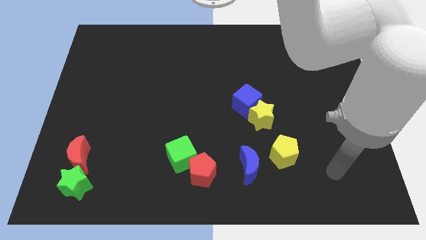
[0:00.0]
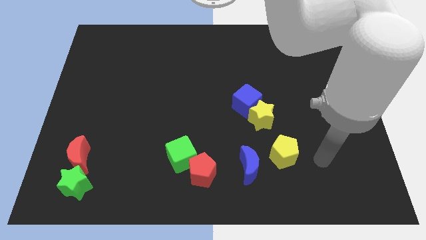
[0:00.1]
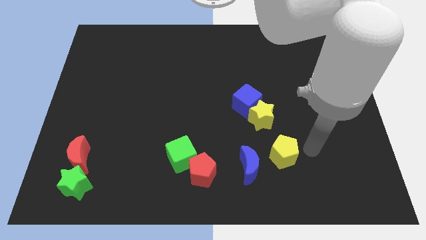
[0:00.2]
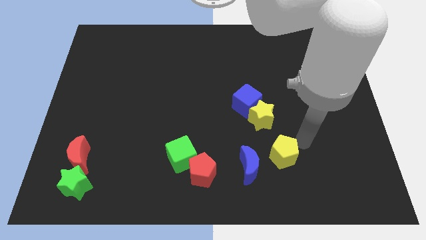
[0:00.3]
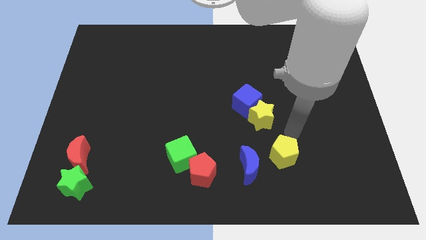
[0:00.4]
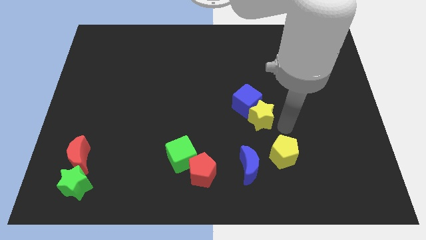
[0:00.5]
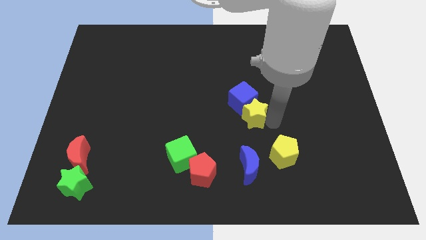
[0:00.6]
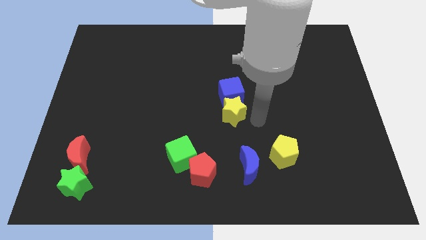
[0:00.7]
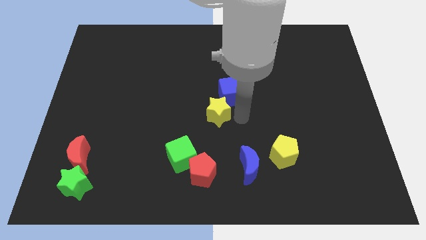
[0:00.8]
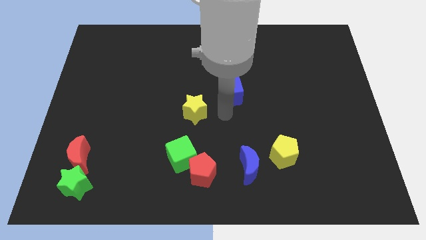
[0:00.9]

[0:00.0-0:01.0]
separate the blue cube from the yellow star

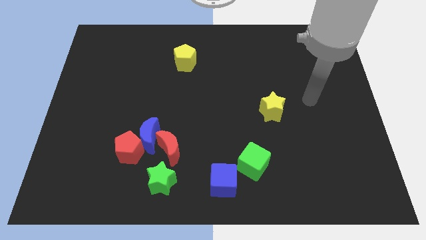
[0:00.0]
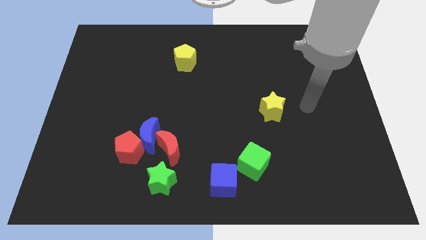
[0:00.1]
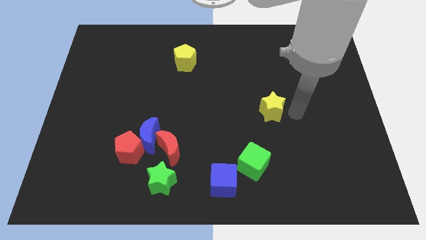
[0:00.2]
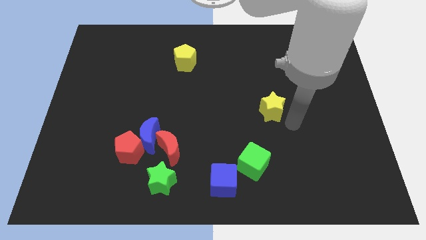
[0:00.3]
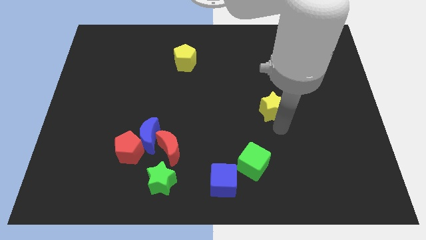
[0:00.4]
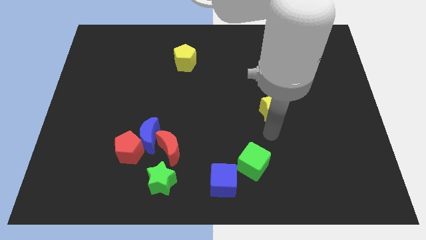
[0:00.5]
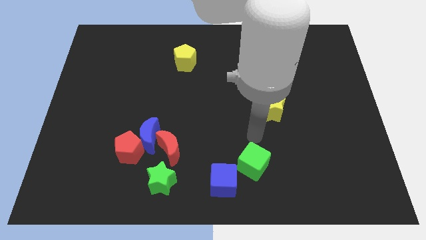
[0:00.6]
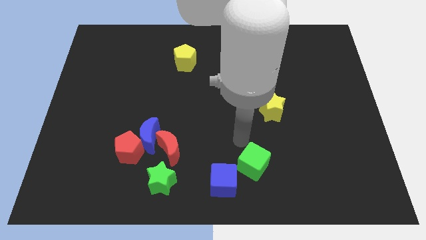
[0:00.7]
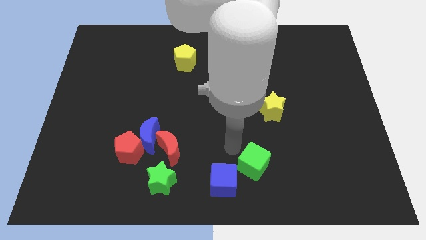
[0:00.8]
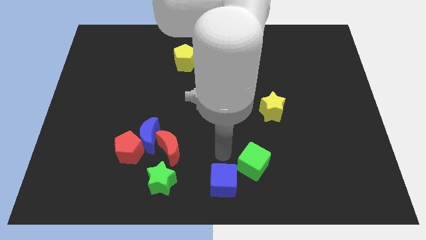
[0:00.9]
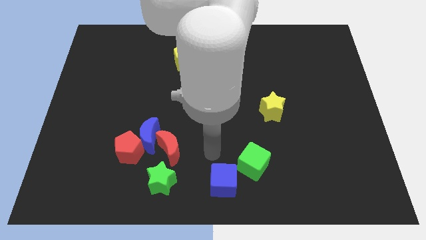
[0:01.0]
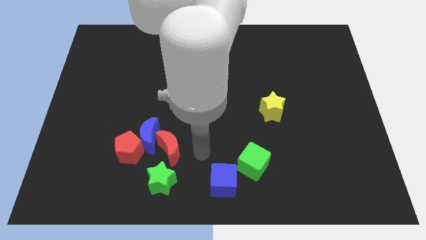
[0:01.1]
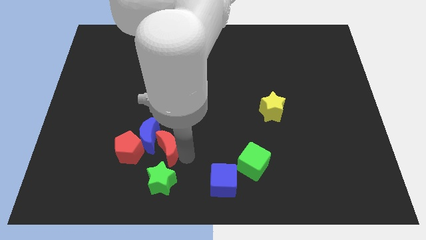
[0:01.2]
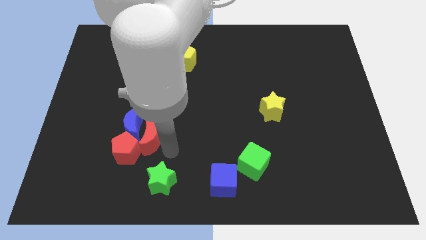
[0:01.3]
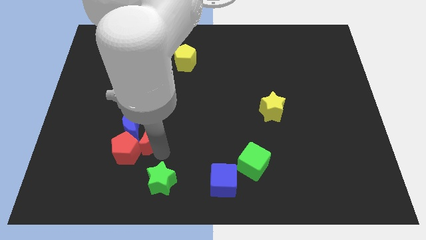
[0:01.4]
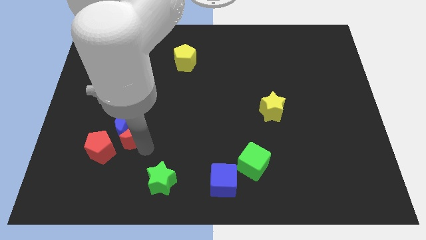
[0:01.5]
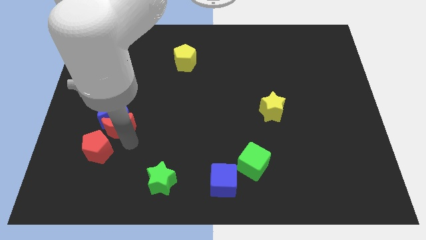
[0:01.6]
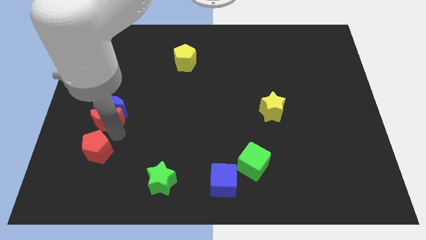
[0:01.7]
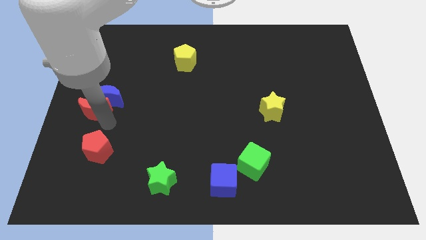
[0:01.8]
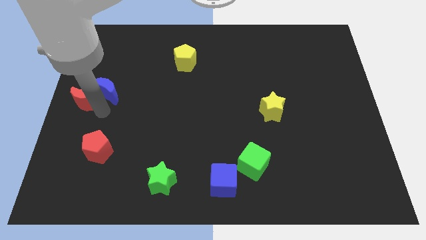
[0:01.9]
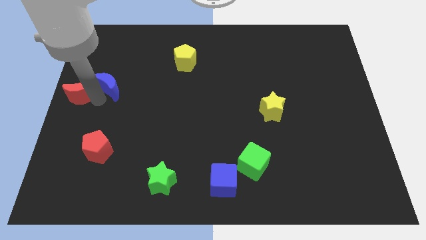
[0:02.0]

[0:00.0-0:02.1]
pull the blue moon apart from the red pentagon and red moon

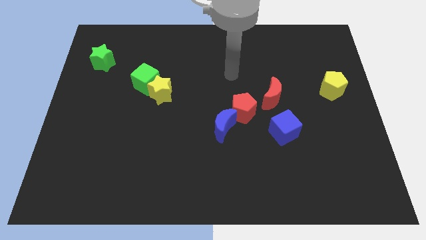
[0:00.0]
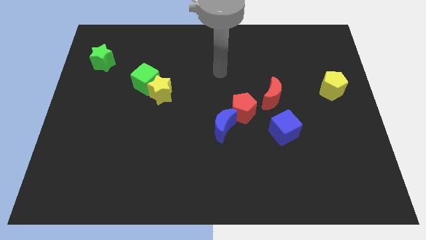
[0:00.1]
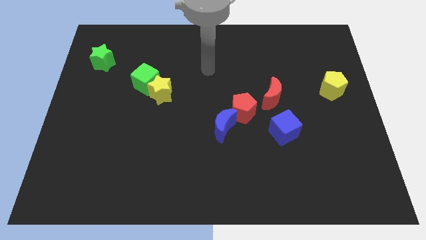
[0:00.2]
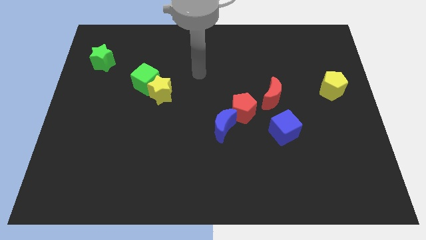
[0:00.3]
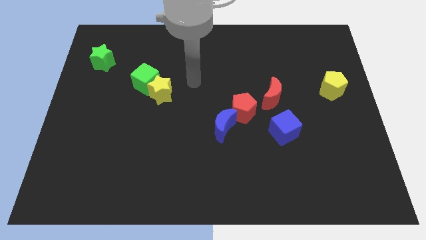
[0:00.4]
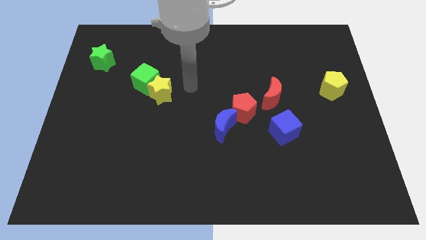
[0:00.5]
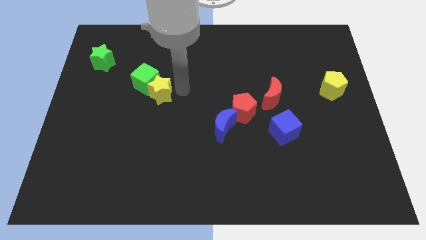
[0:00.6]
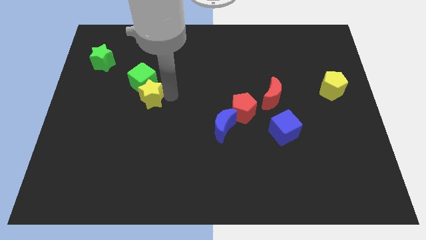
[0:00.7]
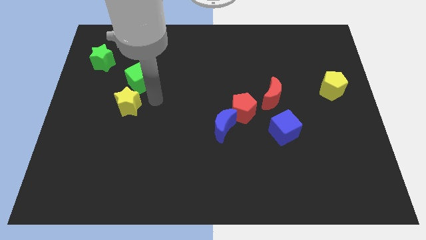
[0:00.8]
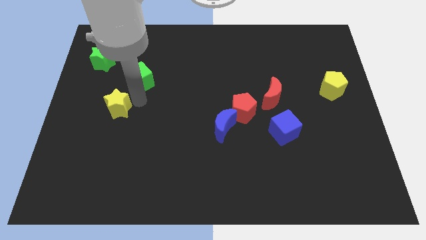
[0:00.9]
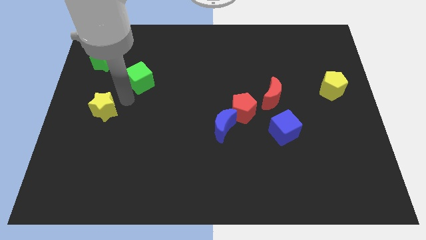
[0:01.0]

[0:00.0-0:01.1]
pull the green cube apart from the yellow star

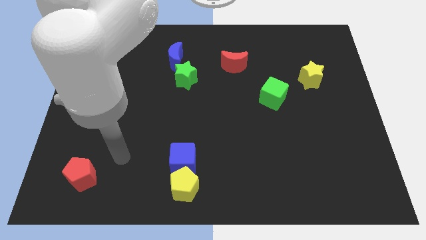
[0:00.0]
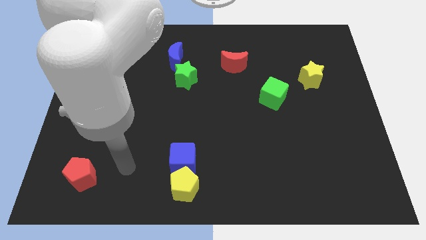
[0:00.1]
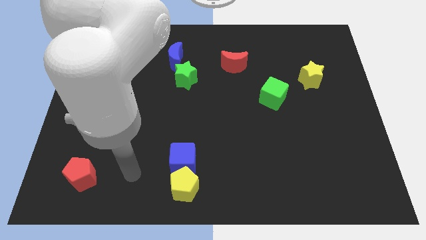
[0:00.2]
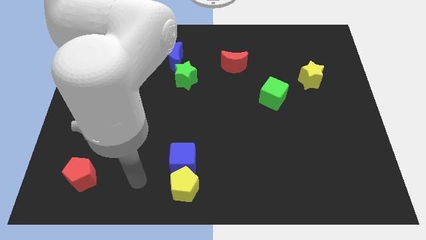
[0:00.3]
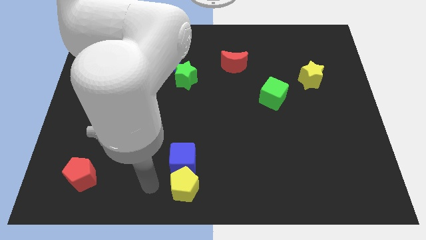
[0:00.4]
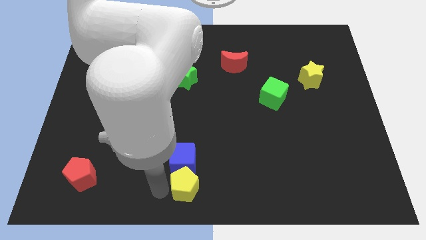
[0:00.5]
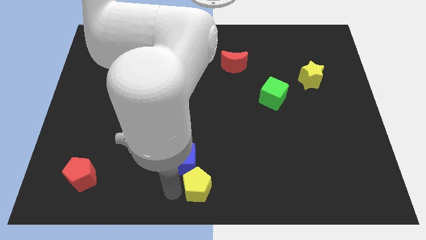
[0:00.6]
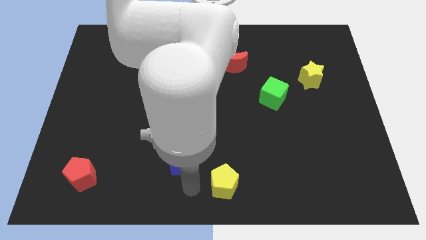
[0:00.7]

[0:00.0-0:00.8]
move the blue cube away from the yellow pentagon

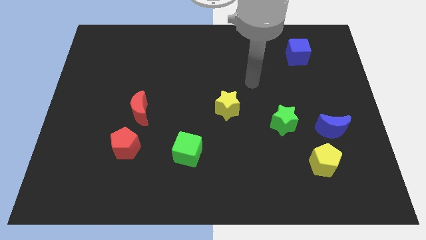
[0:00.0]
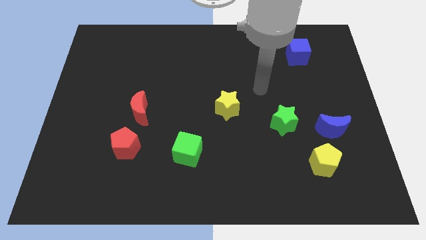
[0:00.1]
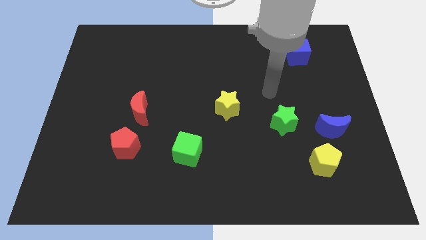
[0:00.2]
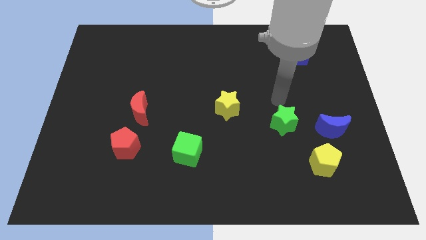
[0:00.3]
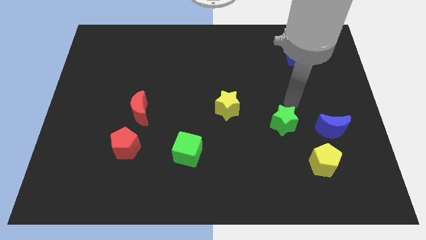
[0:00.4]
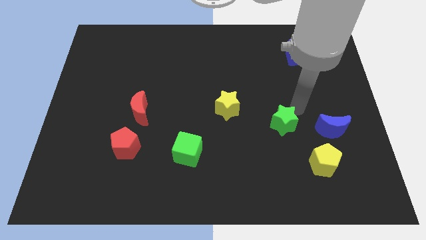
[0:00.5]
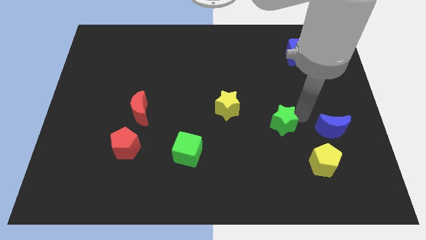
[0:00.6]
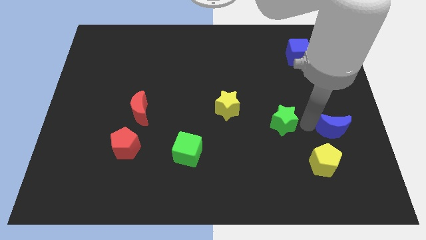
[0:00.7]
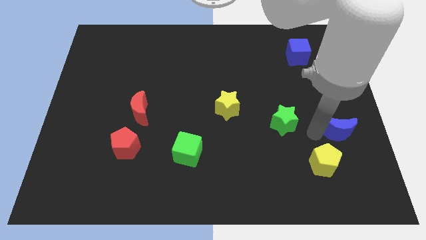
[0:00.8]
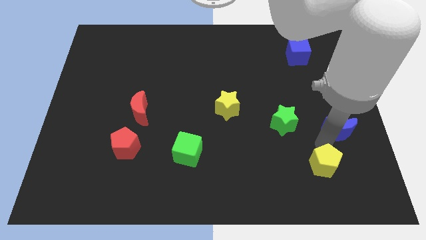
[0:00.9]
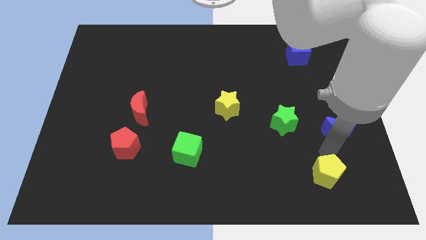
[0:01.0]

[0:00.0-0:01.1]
pull the blue moon apart from the yellow pentagon

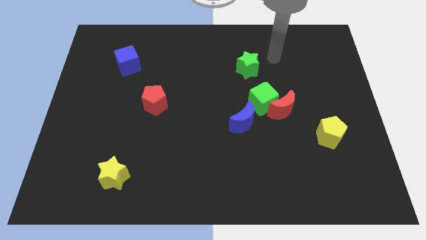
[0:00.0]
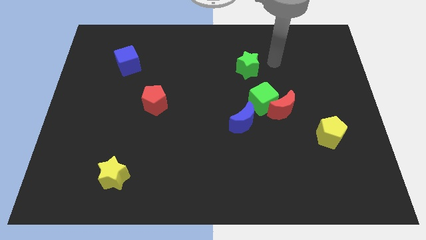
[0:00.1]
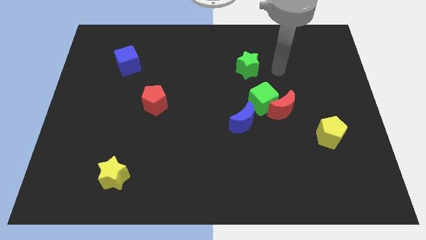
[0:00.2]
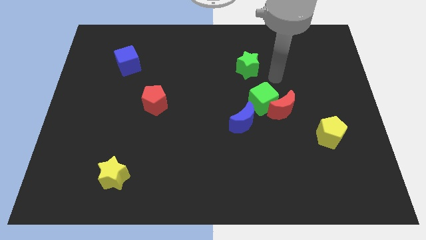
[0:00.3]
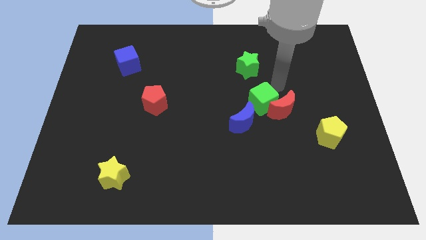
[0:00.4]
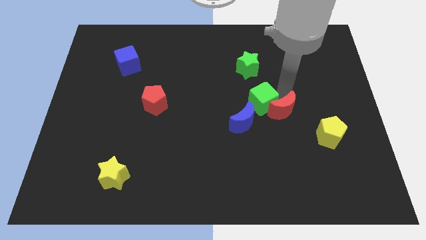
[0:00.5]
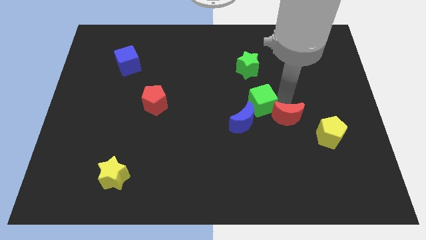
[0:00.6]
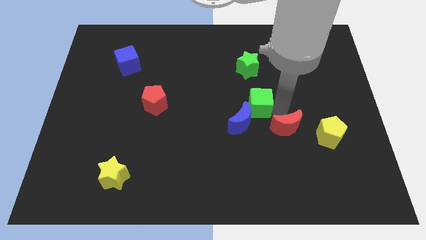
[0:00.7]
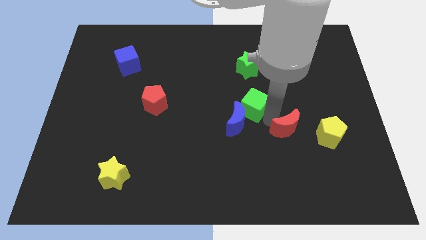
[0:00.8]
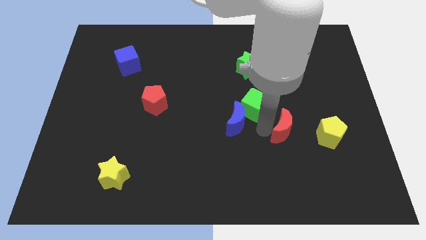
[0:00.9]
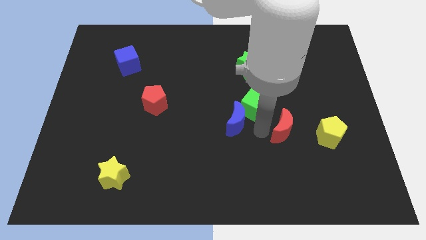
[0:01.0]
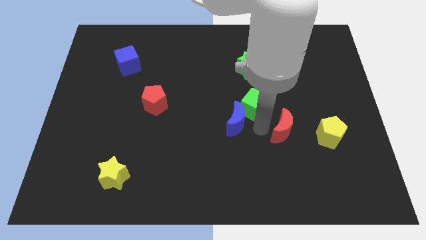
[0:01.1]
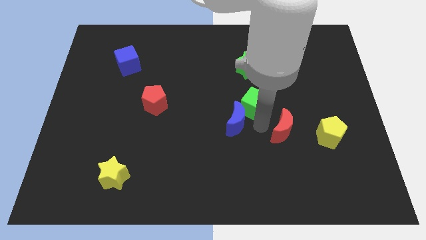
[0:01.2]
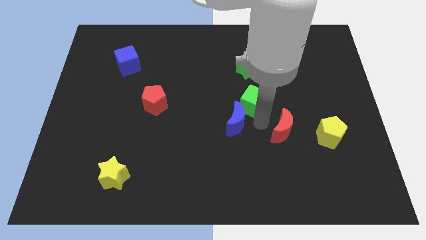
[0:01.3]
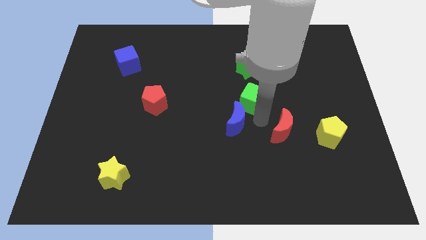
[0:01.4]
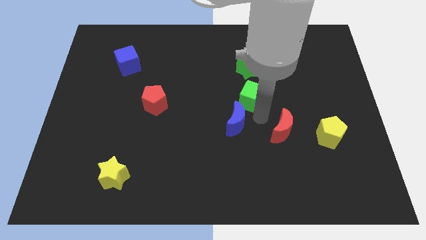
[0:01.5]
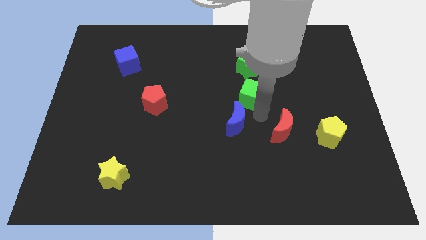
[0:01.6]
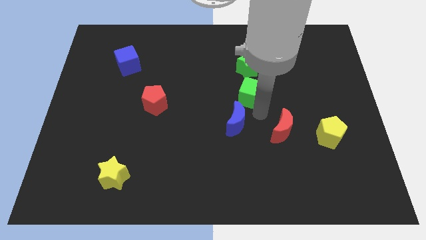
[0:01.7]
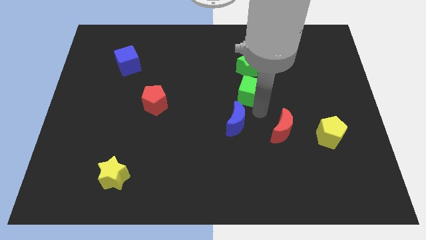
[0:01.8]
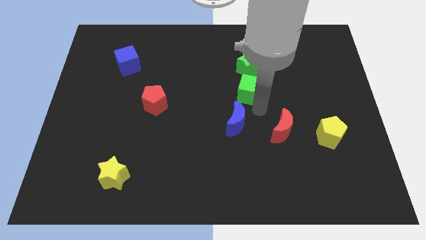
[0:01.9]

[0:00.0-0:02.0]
separate the green cube from the red moon and blue moon

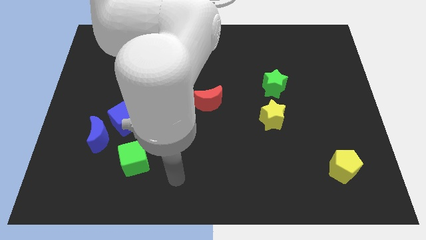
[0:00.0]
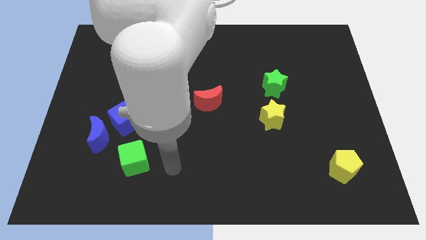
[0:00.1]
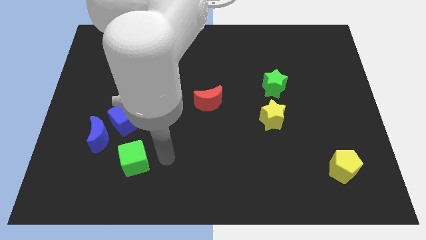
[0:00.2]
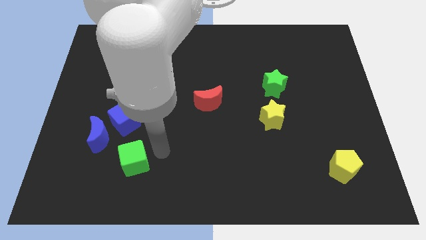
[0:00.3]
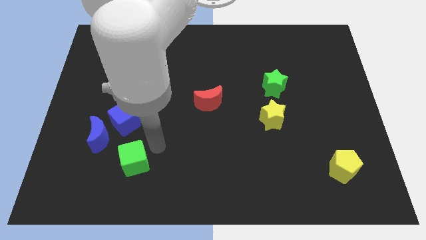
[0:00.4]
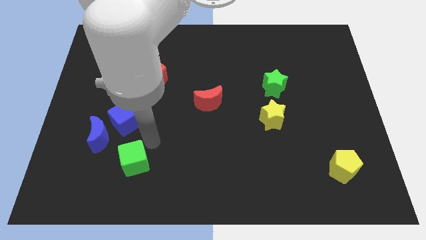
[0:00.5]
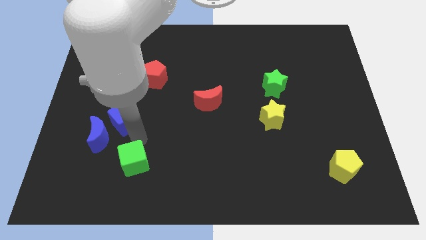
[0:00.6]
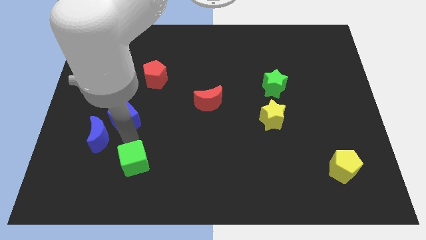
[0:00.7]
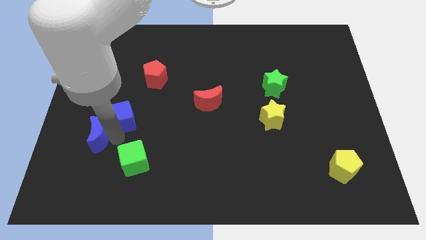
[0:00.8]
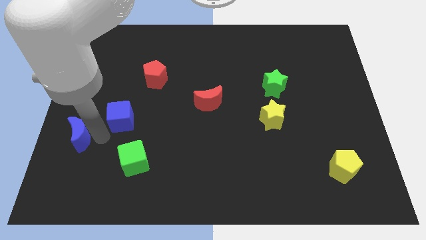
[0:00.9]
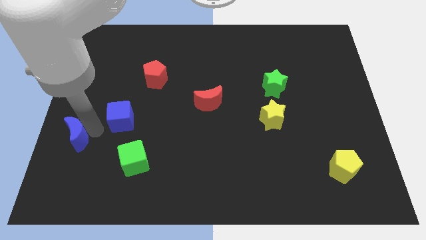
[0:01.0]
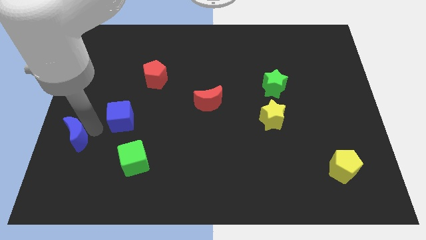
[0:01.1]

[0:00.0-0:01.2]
move the blue cube away from the blue moon
